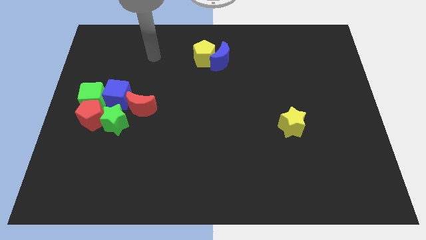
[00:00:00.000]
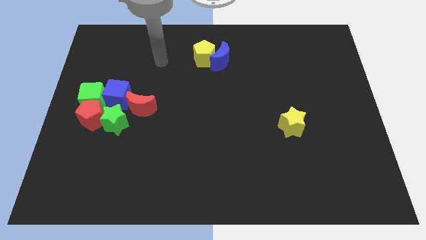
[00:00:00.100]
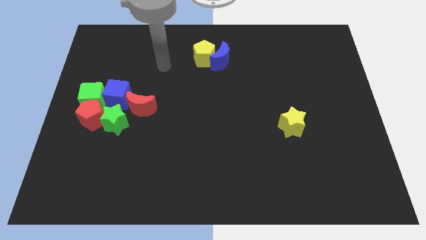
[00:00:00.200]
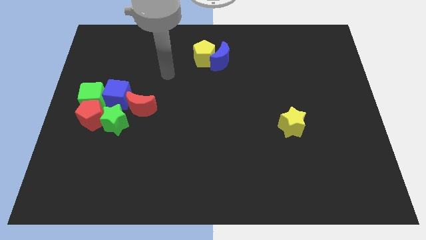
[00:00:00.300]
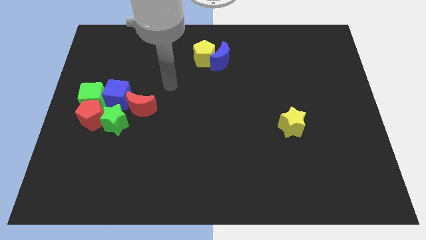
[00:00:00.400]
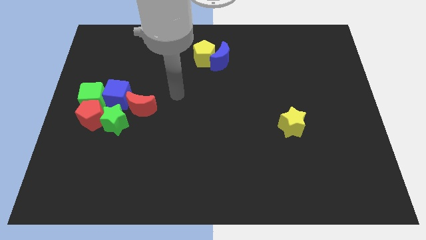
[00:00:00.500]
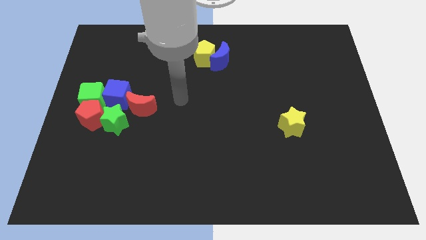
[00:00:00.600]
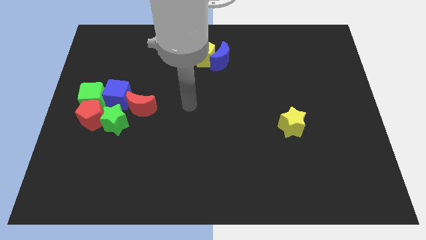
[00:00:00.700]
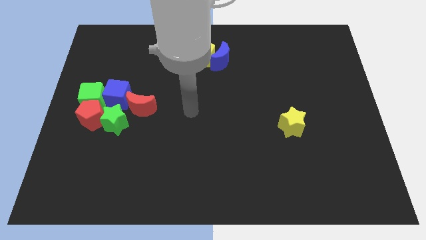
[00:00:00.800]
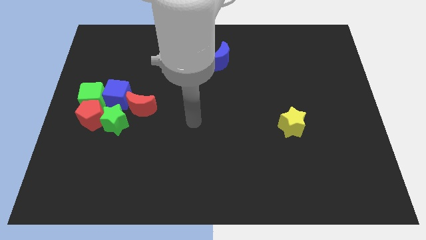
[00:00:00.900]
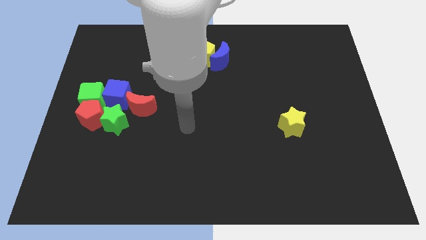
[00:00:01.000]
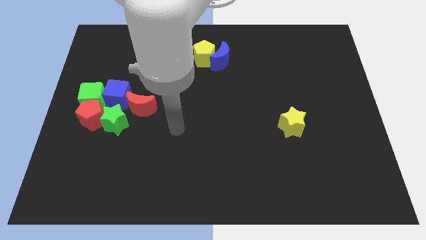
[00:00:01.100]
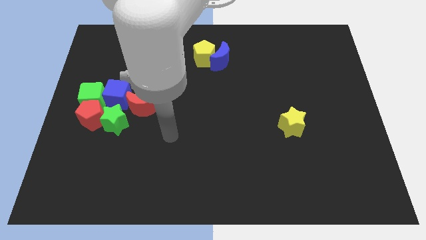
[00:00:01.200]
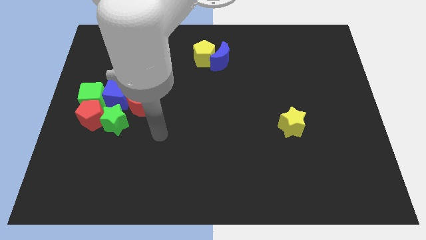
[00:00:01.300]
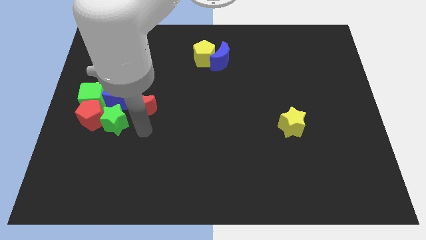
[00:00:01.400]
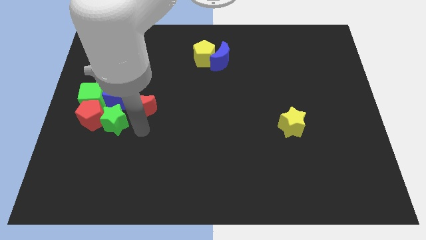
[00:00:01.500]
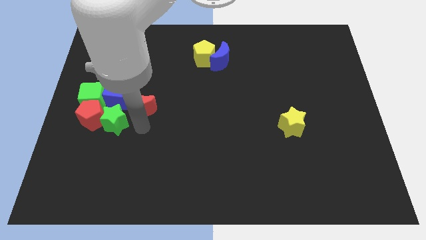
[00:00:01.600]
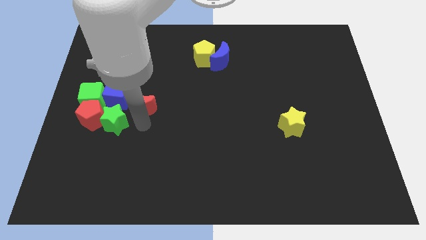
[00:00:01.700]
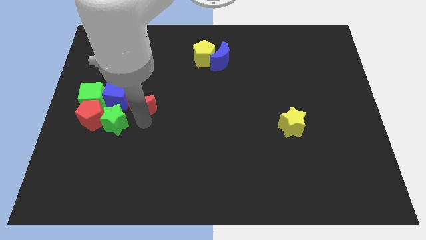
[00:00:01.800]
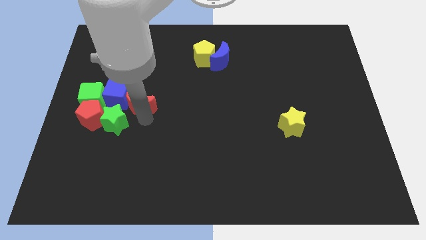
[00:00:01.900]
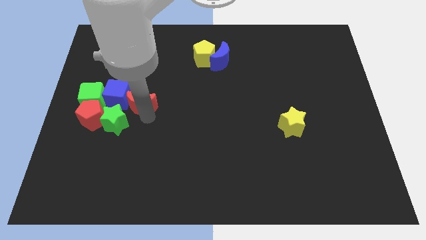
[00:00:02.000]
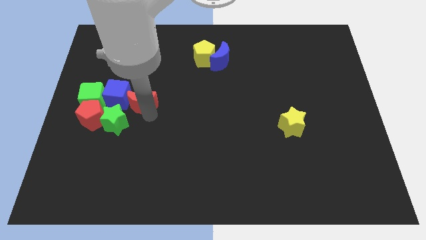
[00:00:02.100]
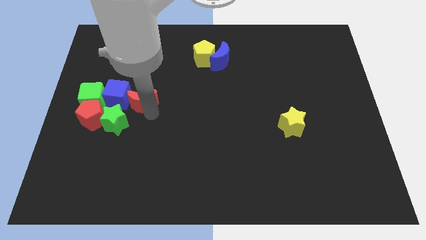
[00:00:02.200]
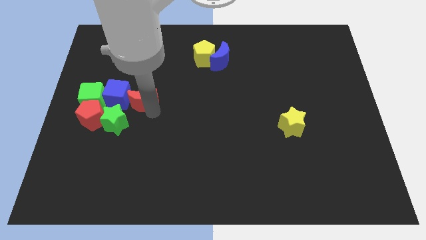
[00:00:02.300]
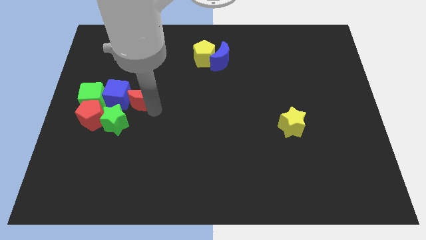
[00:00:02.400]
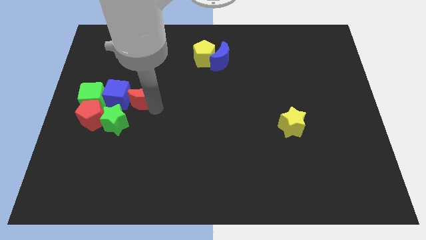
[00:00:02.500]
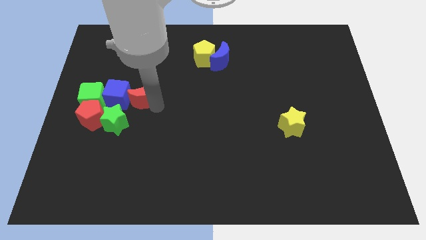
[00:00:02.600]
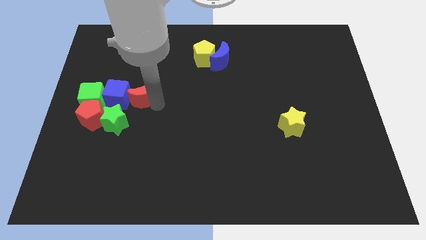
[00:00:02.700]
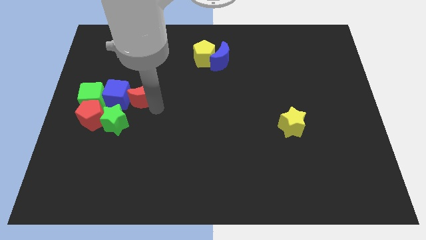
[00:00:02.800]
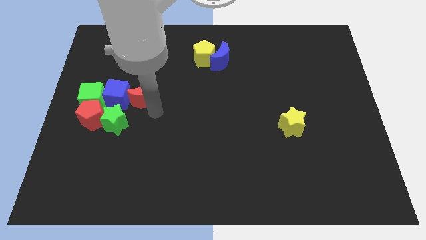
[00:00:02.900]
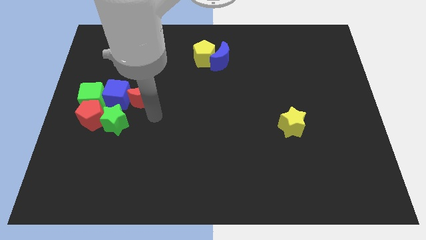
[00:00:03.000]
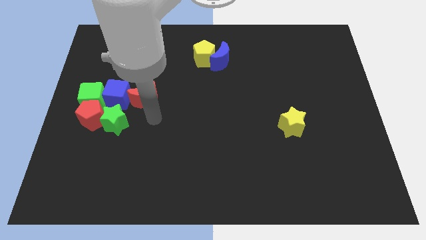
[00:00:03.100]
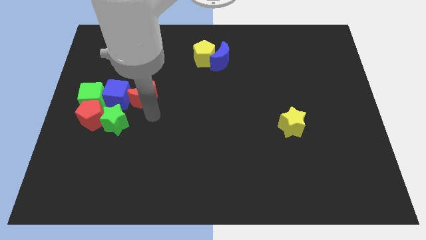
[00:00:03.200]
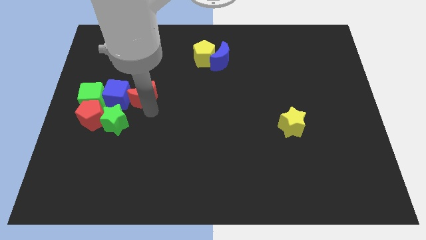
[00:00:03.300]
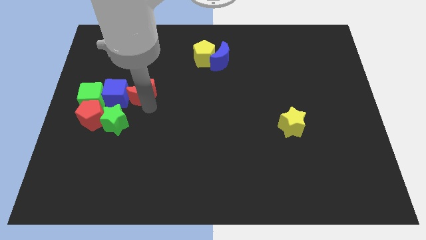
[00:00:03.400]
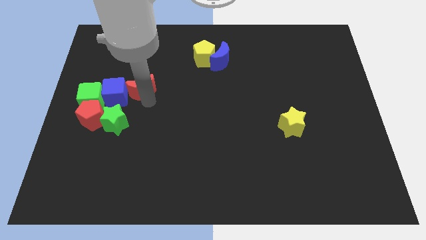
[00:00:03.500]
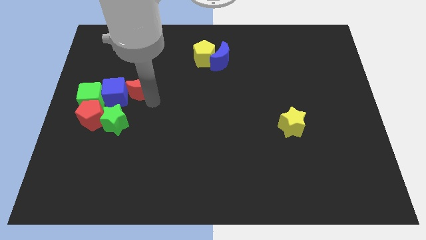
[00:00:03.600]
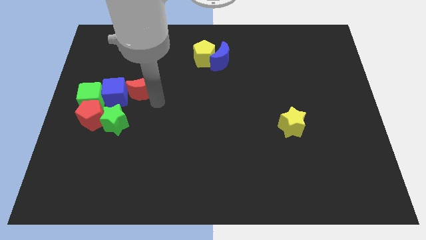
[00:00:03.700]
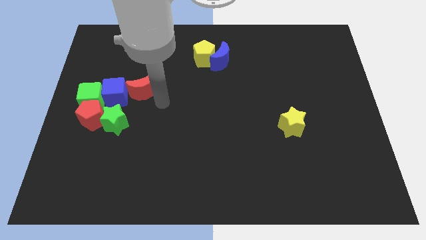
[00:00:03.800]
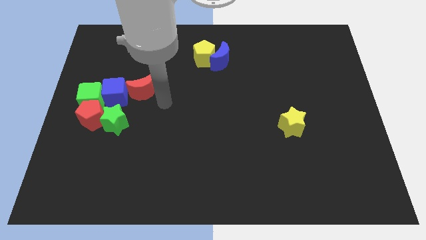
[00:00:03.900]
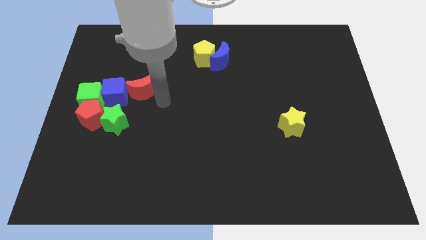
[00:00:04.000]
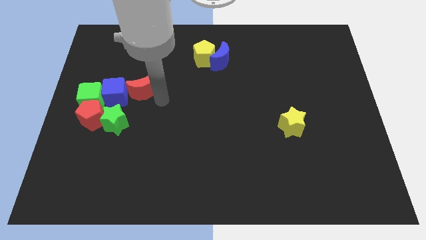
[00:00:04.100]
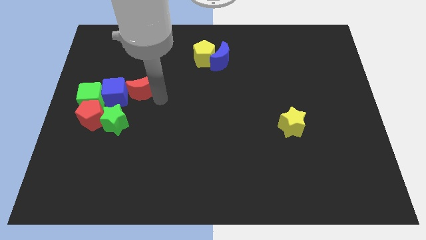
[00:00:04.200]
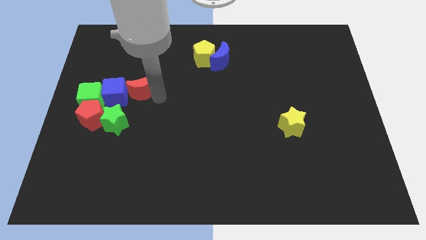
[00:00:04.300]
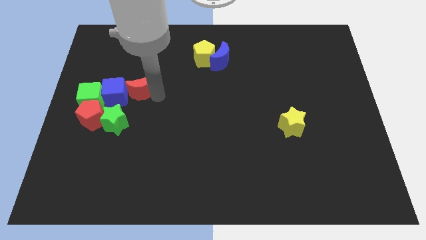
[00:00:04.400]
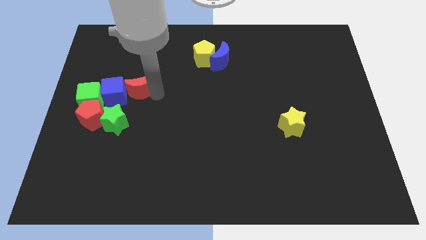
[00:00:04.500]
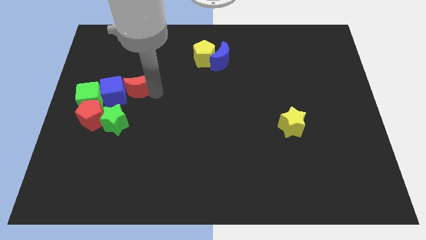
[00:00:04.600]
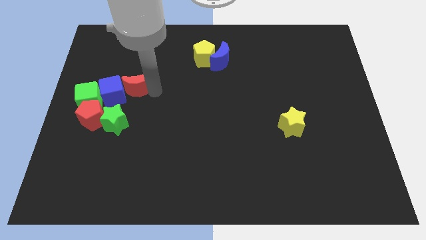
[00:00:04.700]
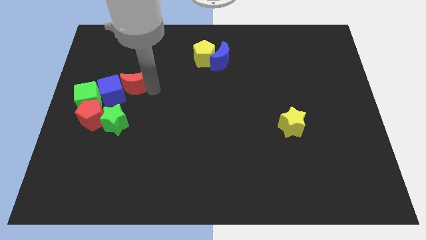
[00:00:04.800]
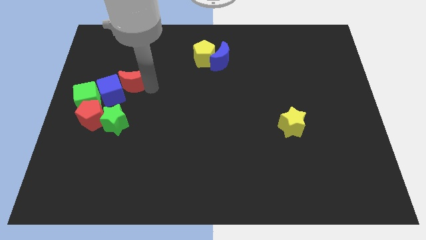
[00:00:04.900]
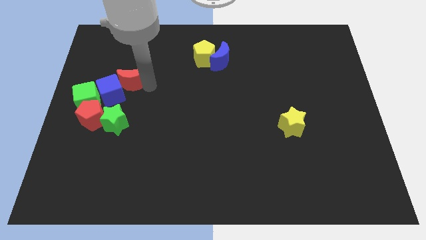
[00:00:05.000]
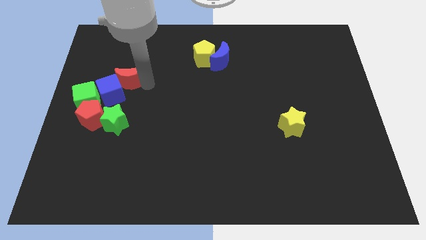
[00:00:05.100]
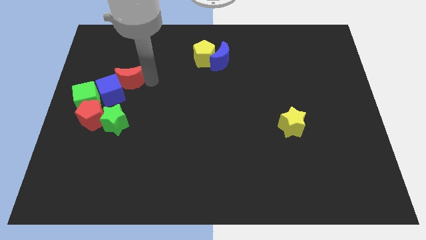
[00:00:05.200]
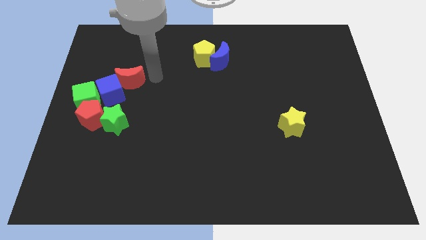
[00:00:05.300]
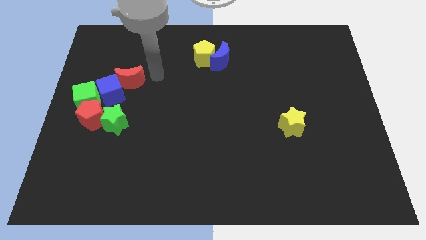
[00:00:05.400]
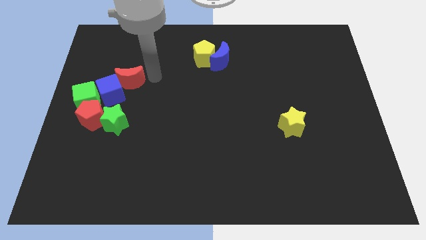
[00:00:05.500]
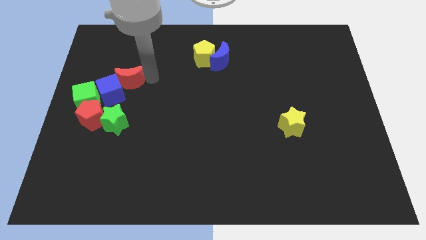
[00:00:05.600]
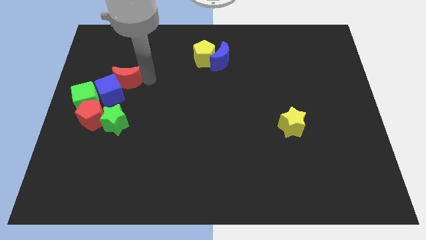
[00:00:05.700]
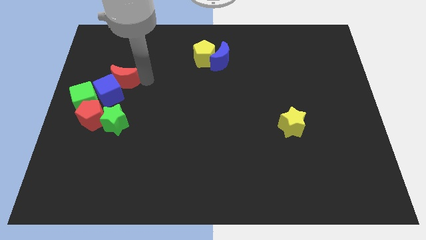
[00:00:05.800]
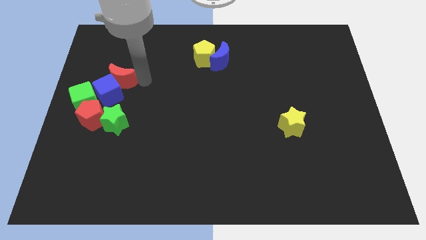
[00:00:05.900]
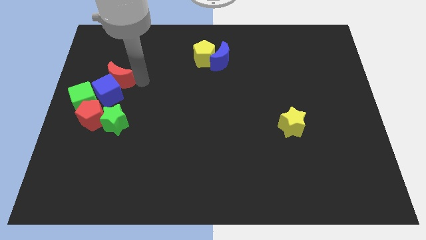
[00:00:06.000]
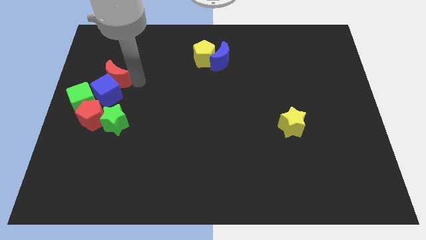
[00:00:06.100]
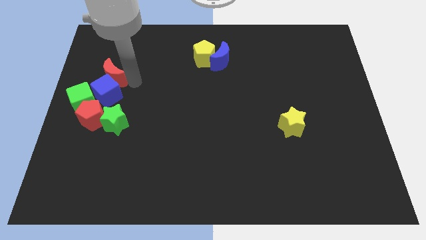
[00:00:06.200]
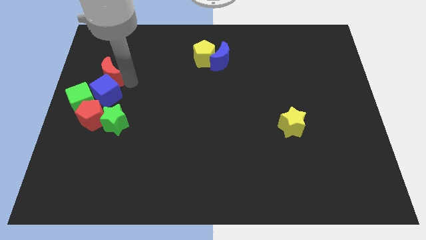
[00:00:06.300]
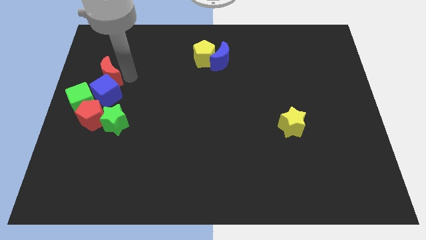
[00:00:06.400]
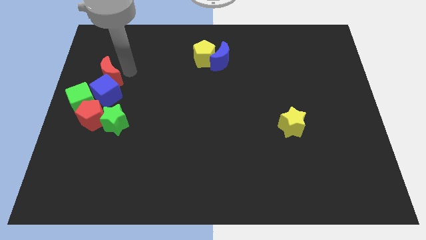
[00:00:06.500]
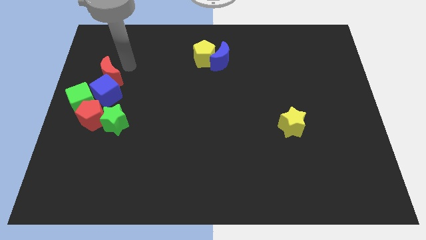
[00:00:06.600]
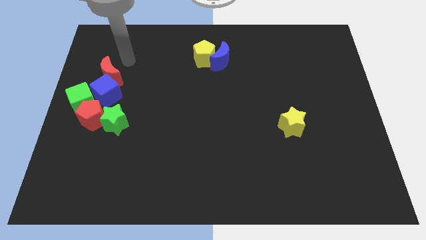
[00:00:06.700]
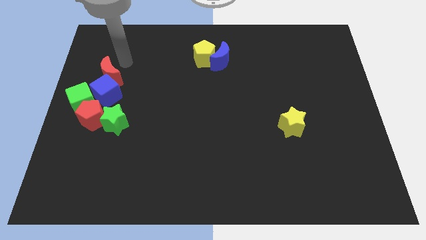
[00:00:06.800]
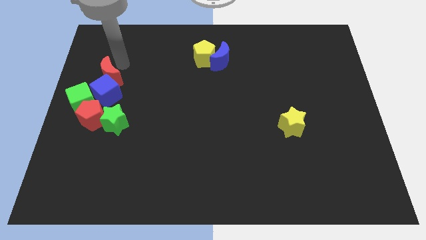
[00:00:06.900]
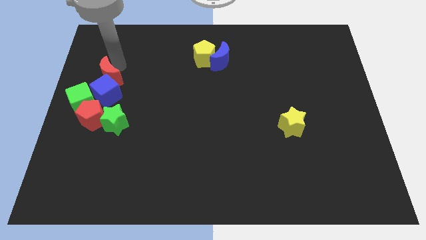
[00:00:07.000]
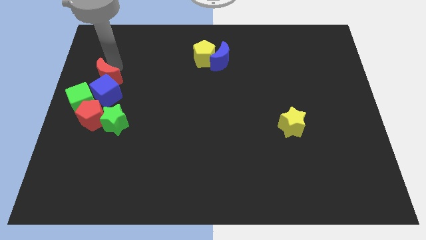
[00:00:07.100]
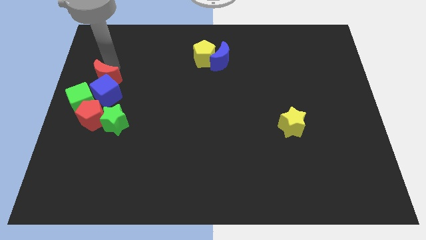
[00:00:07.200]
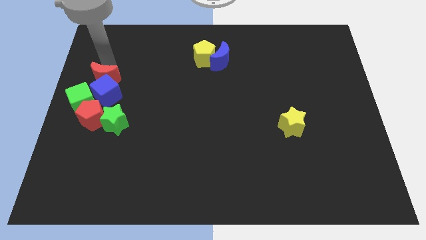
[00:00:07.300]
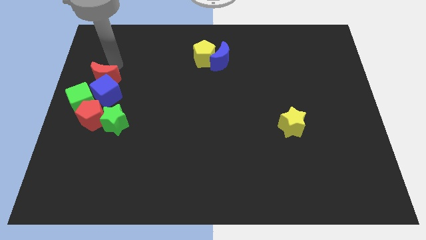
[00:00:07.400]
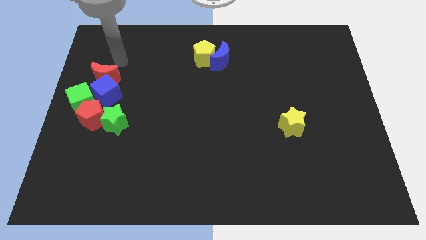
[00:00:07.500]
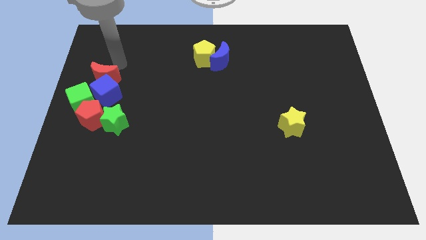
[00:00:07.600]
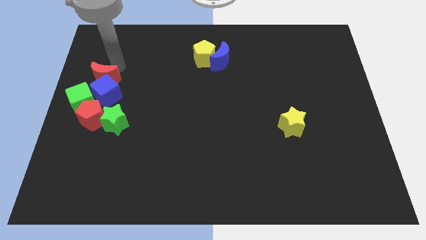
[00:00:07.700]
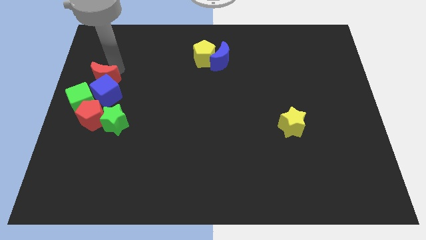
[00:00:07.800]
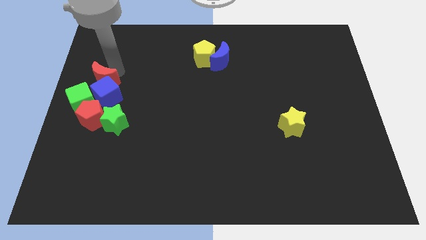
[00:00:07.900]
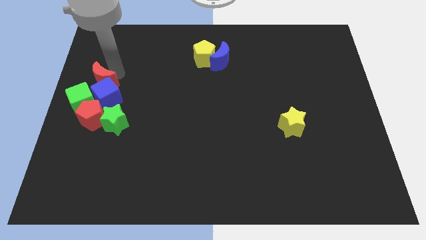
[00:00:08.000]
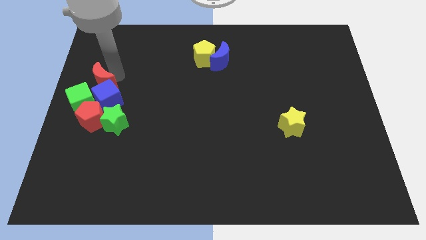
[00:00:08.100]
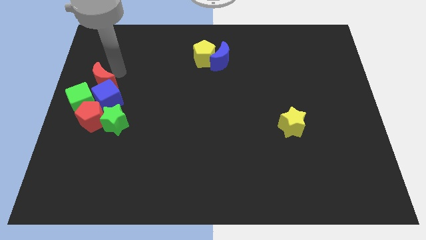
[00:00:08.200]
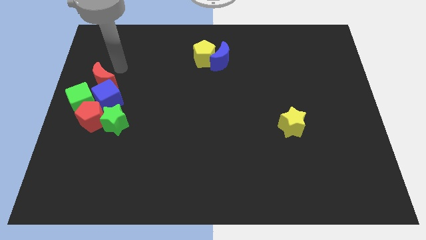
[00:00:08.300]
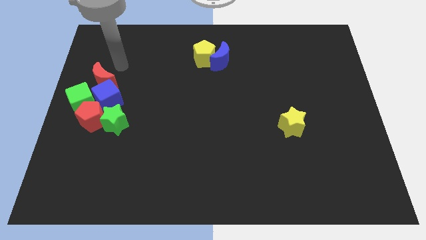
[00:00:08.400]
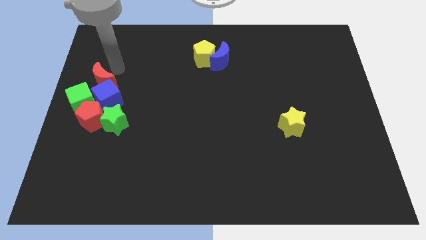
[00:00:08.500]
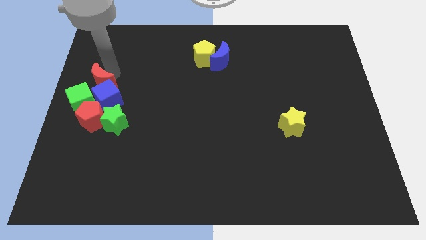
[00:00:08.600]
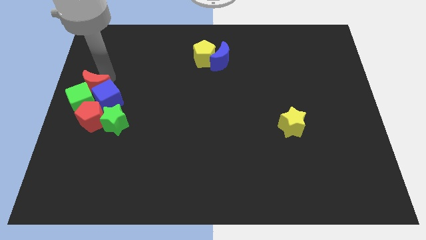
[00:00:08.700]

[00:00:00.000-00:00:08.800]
put the red moon next to the green cube
